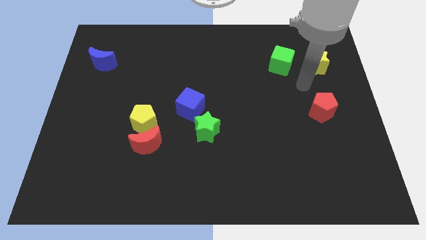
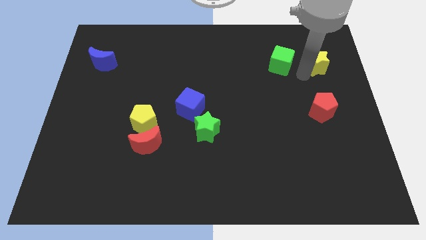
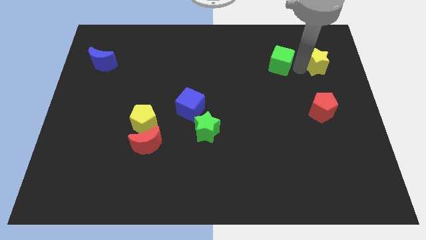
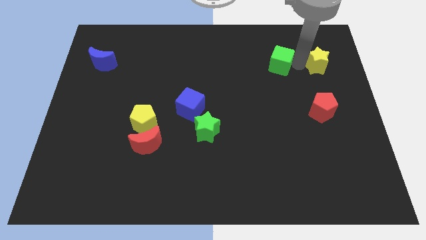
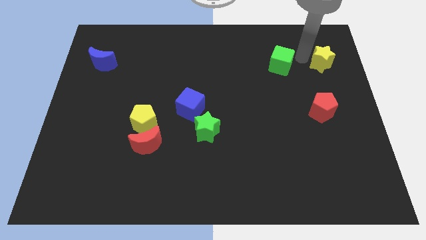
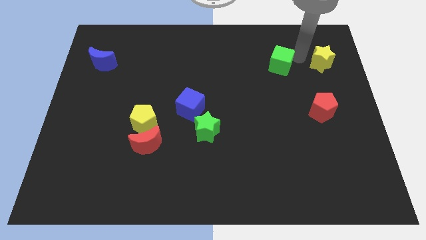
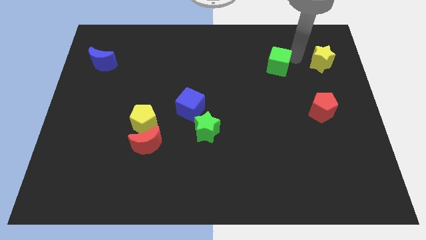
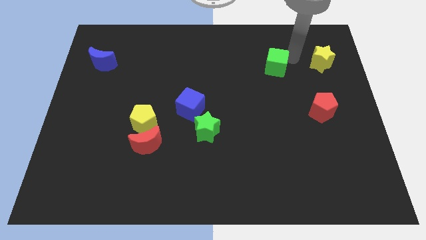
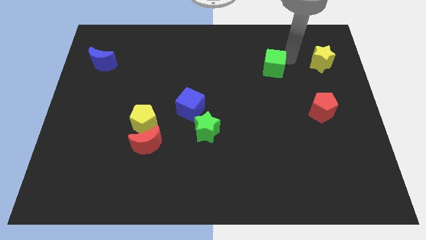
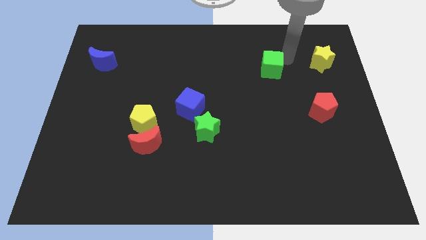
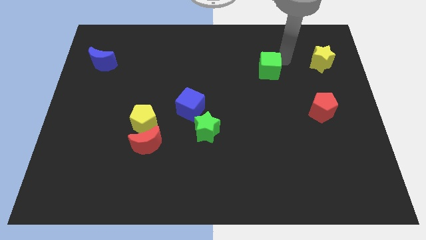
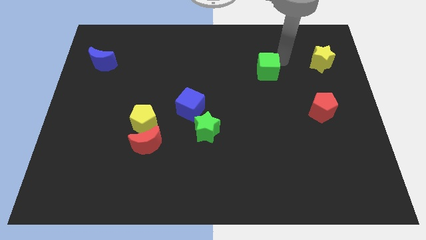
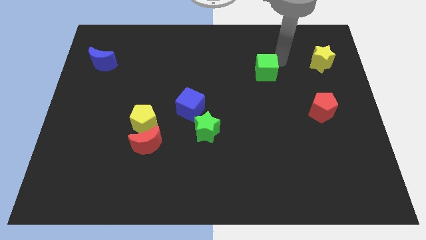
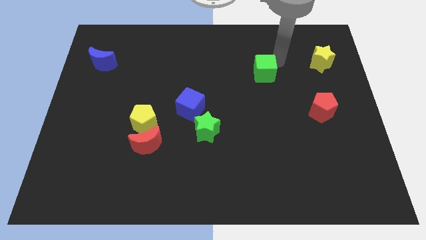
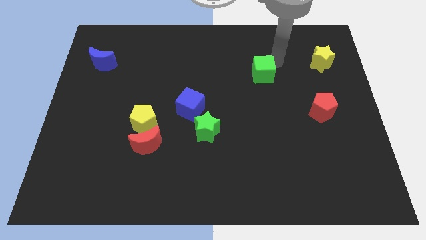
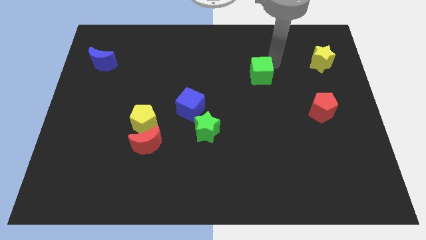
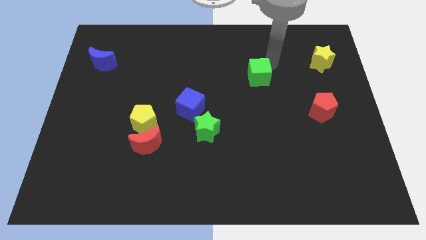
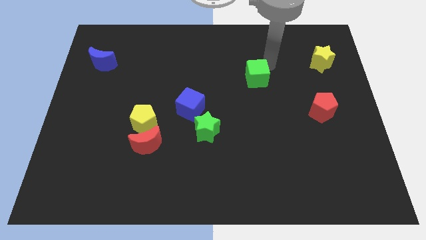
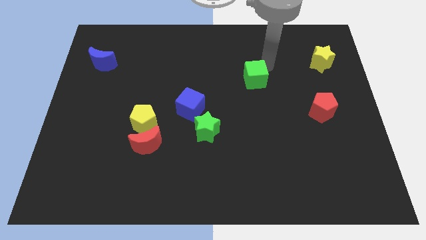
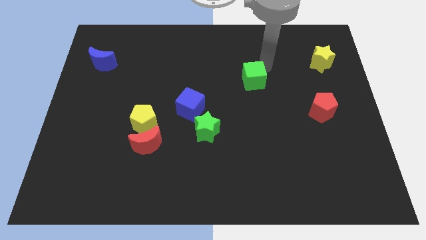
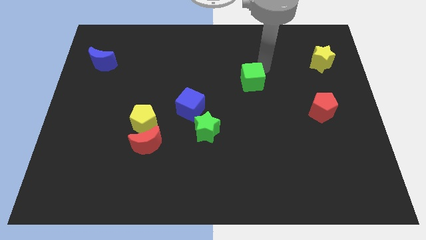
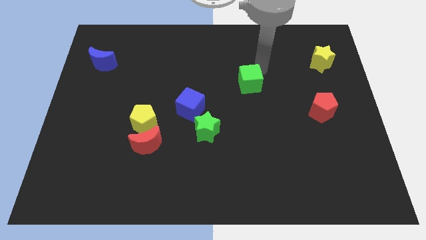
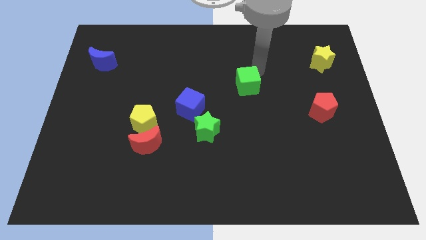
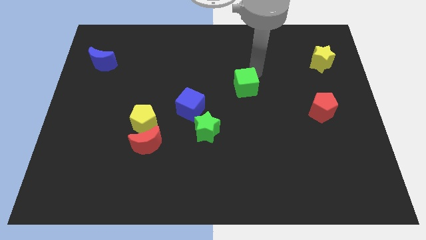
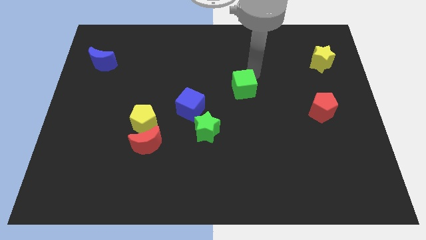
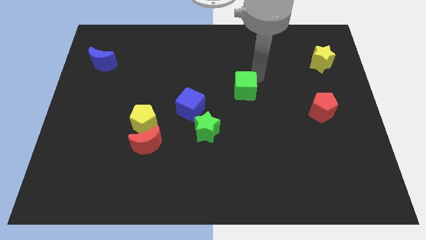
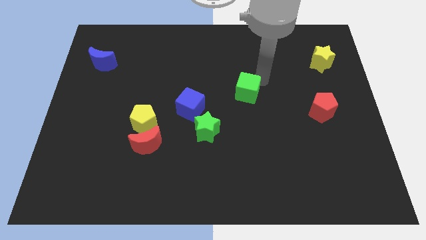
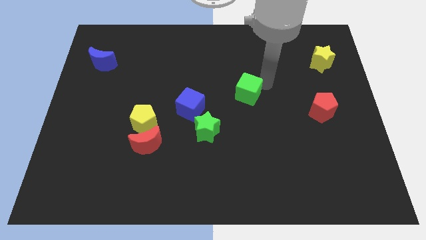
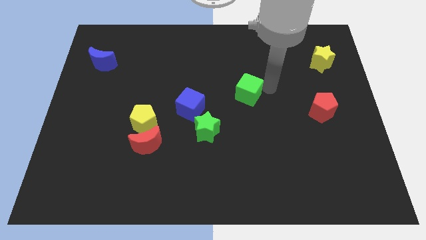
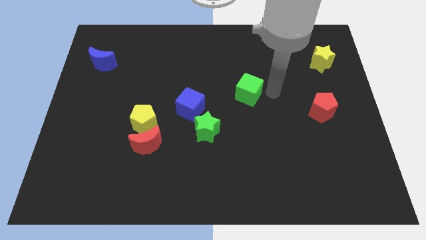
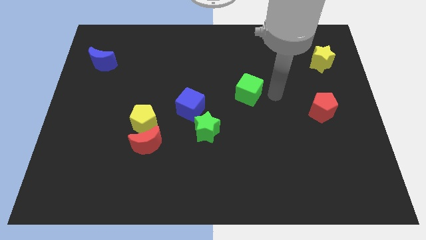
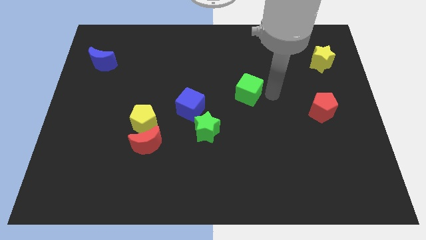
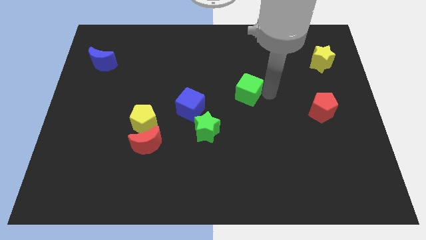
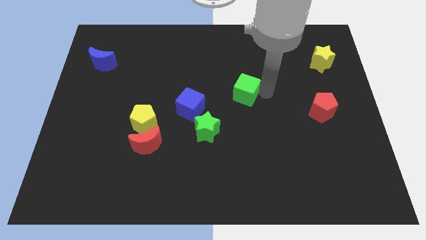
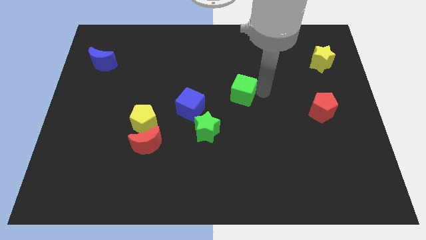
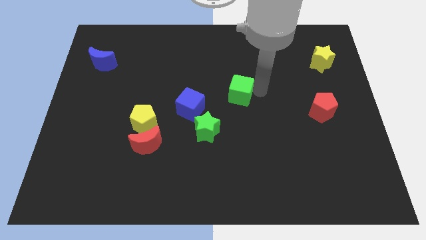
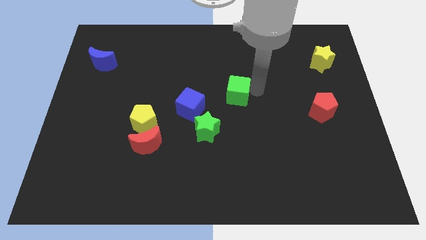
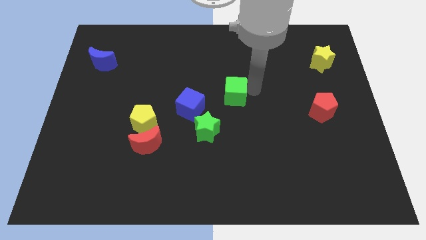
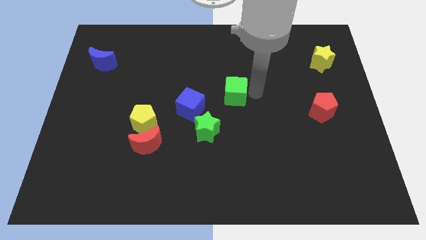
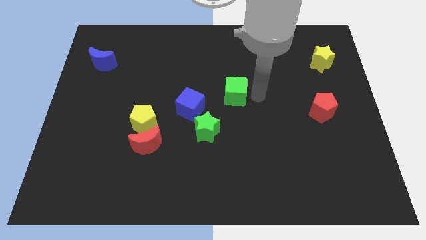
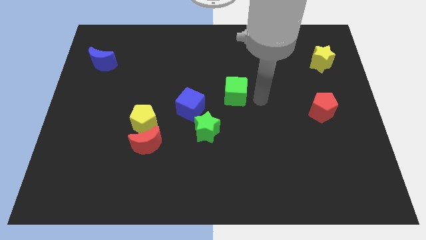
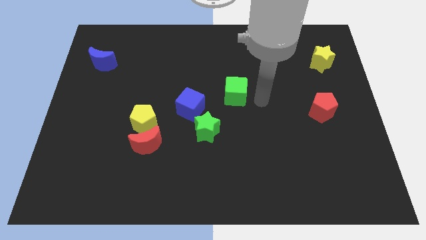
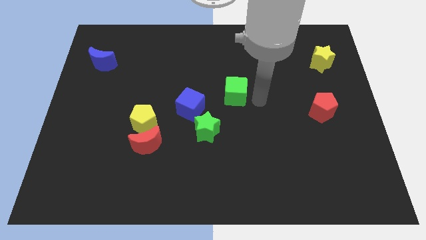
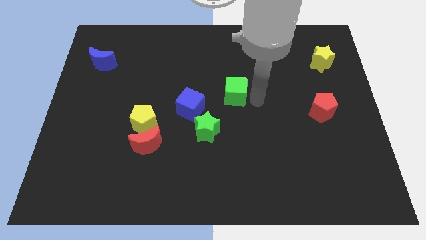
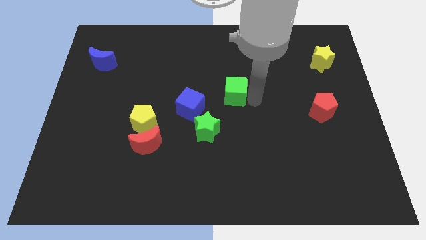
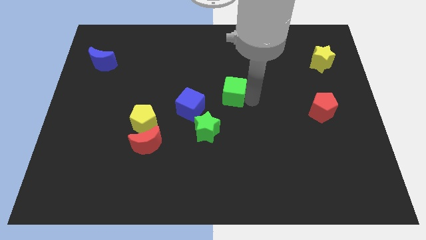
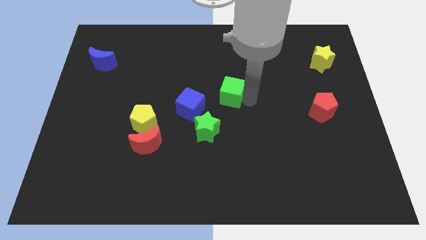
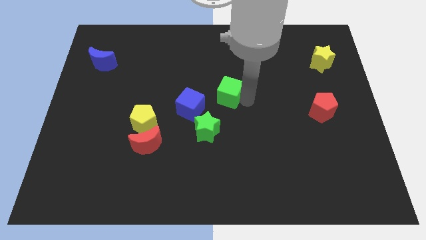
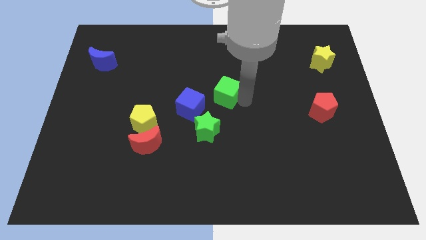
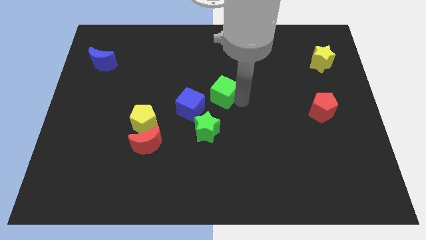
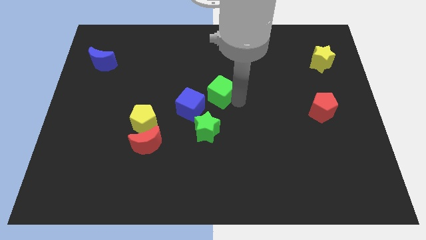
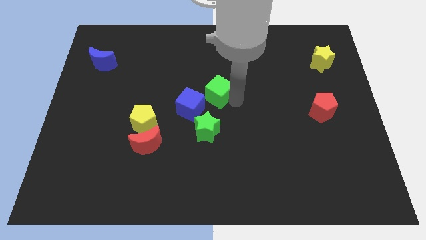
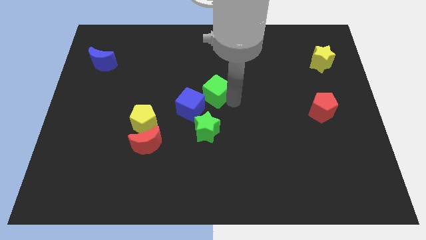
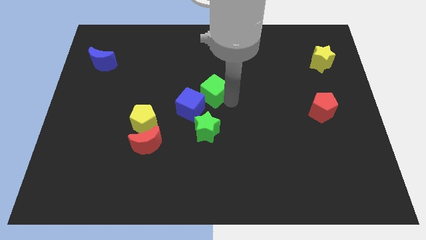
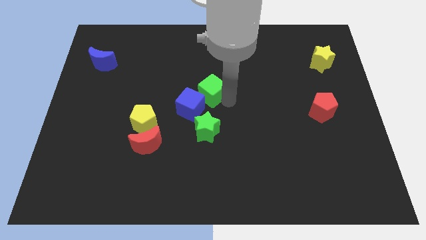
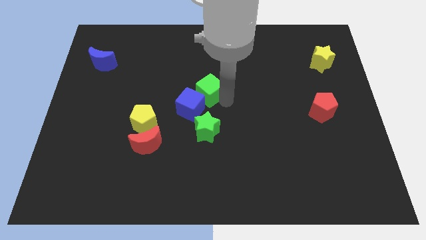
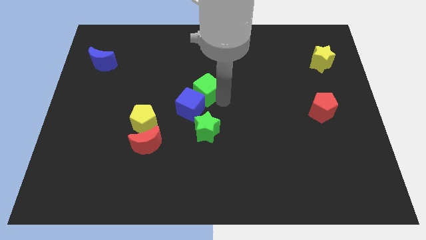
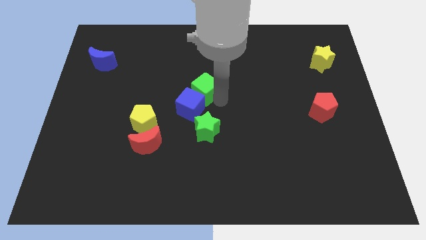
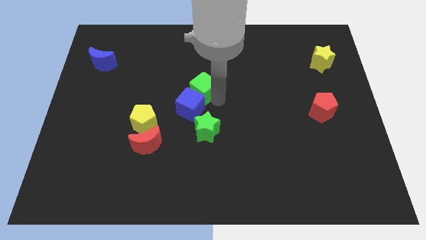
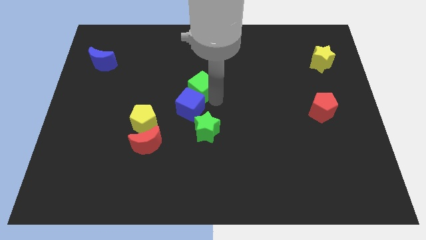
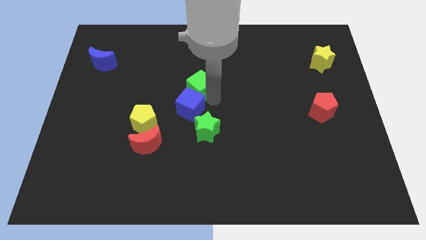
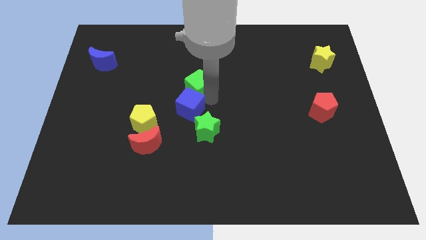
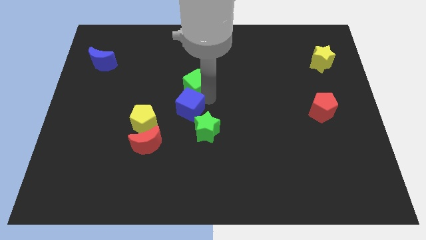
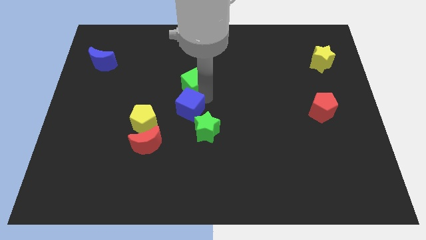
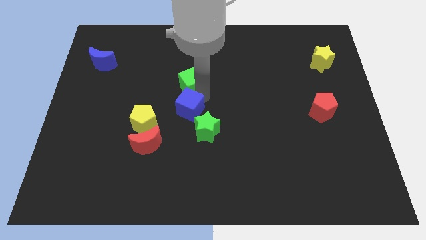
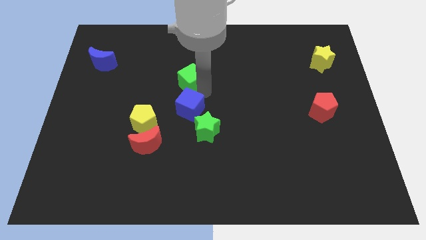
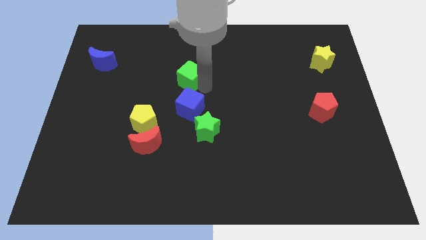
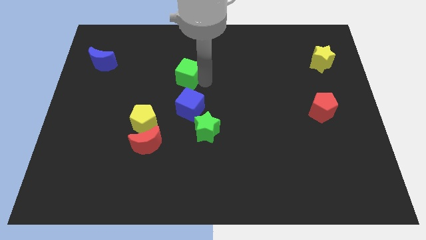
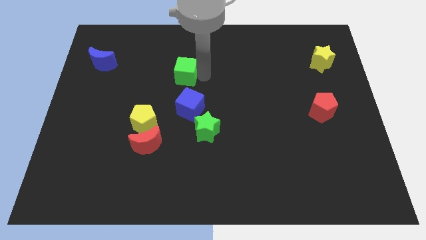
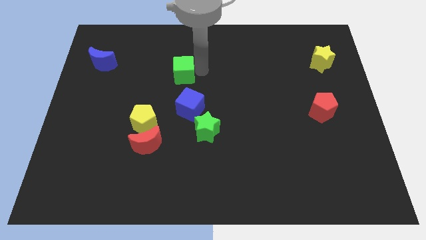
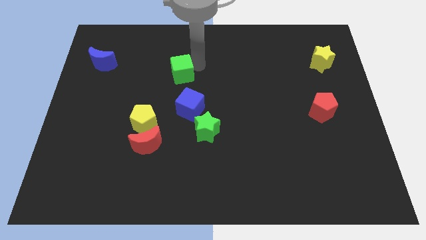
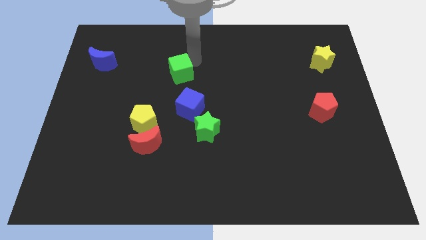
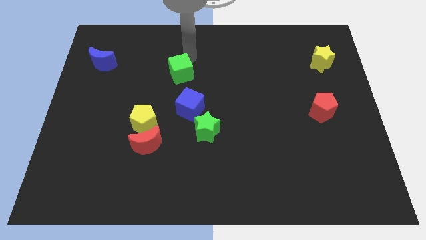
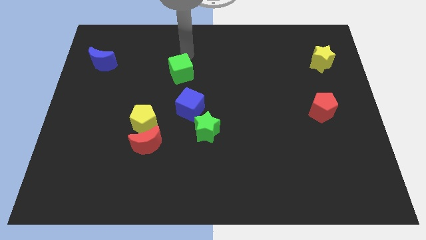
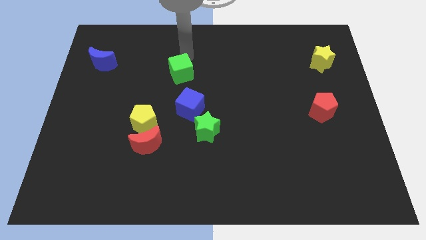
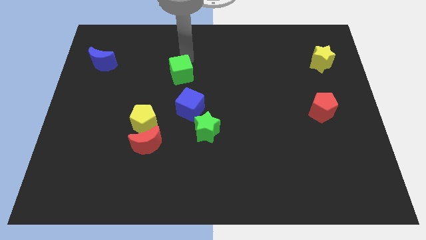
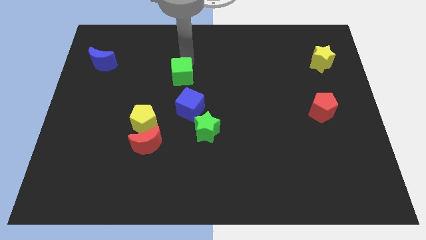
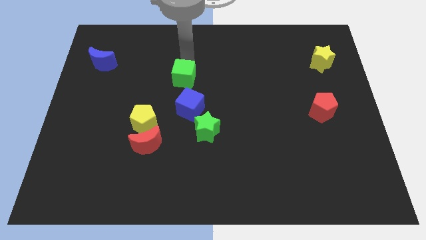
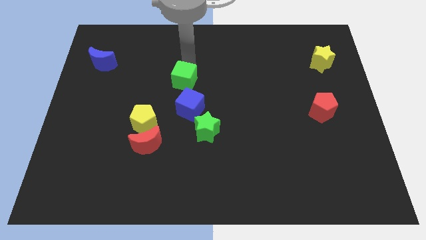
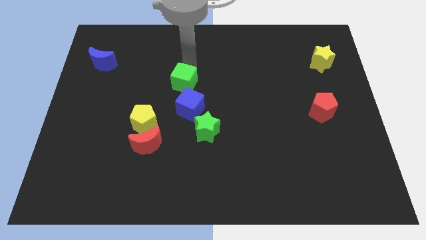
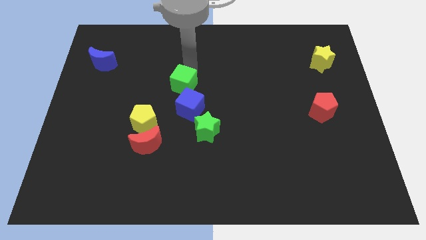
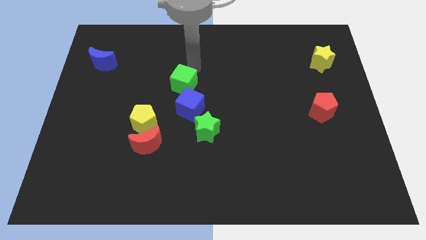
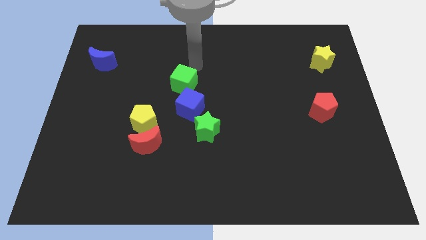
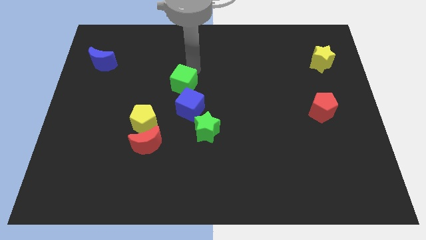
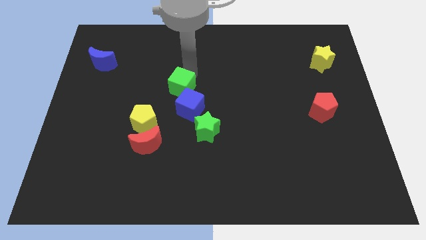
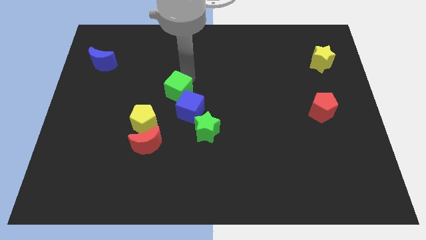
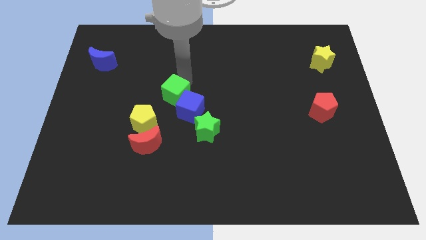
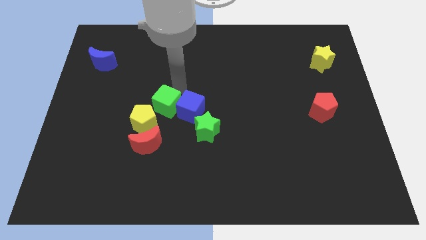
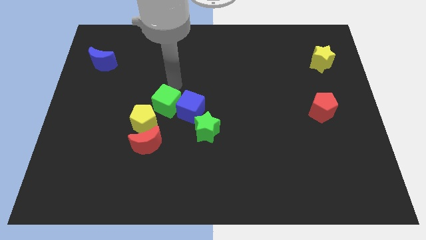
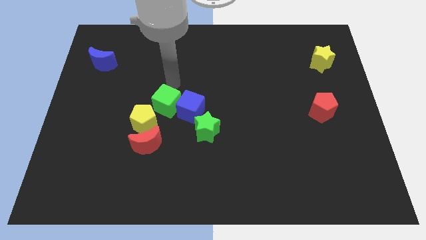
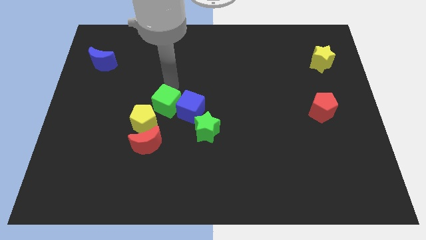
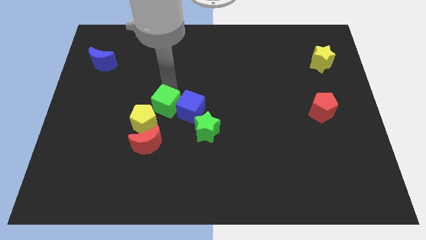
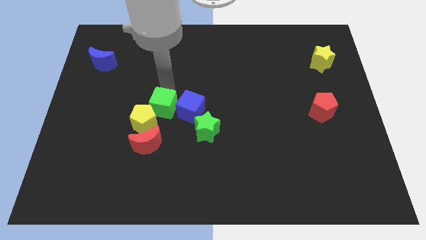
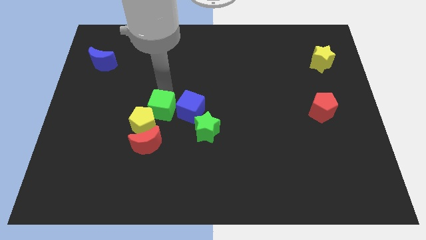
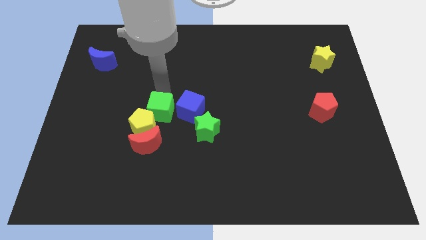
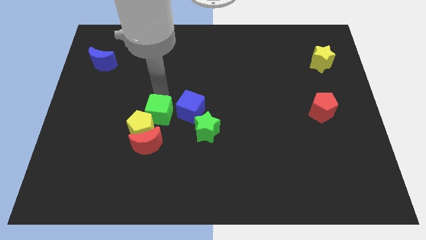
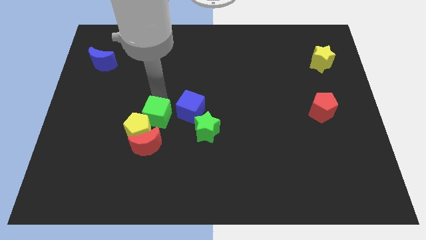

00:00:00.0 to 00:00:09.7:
move the green cube to the left of the green star
